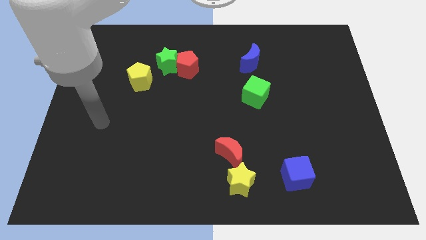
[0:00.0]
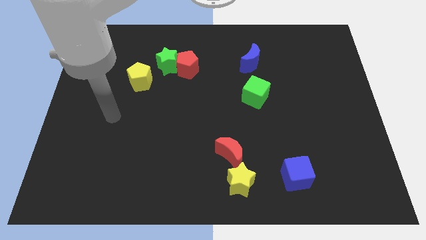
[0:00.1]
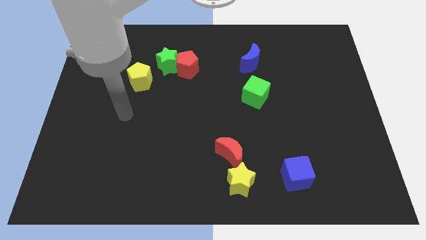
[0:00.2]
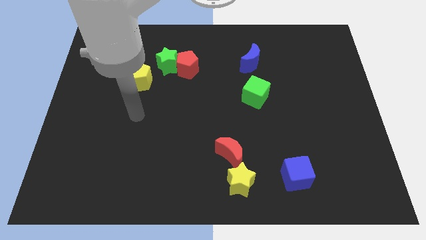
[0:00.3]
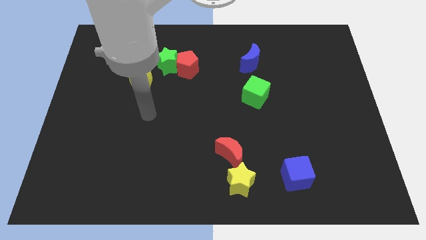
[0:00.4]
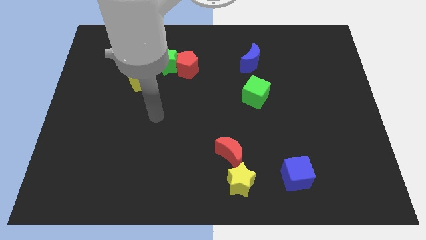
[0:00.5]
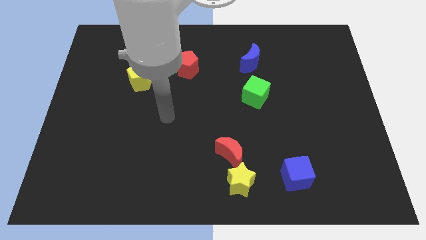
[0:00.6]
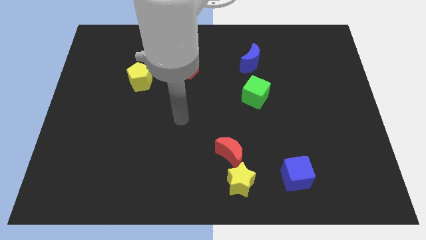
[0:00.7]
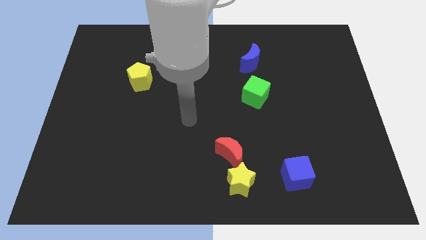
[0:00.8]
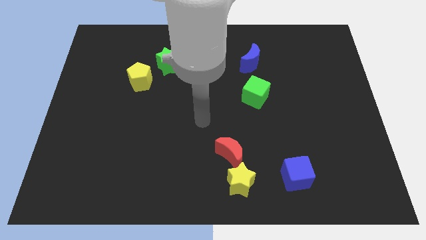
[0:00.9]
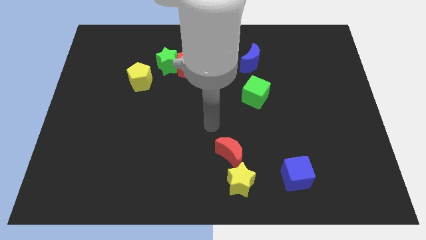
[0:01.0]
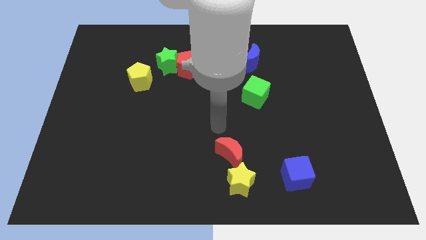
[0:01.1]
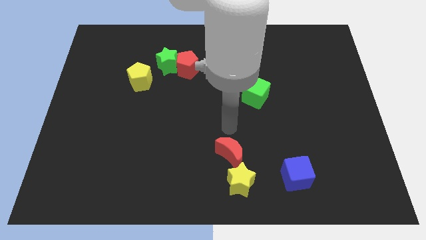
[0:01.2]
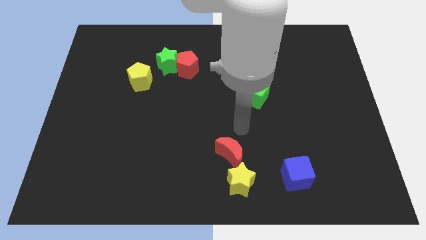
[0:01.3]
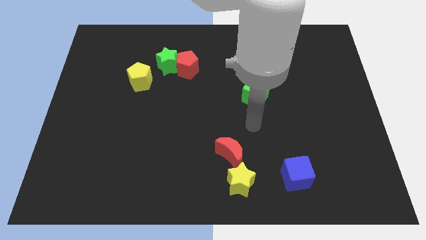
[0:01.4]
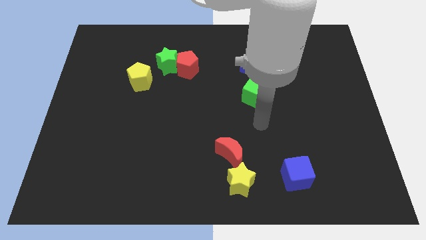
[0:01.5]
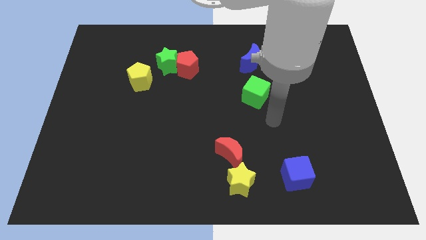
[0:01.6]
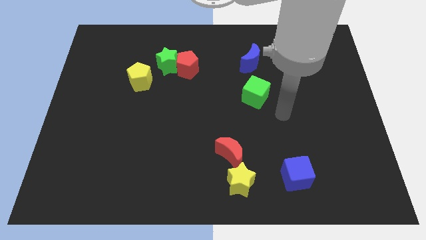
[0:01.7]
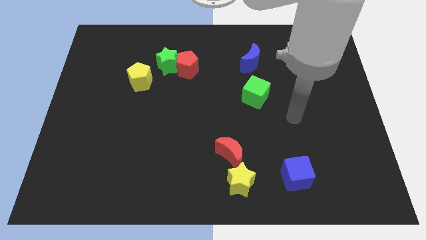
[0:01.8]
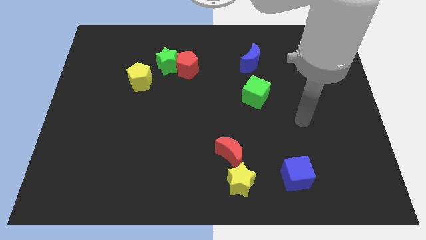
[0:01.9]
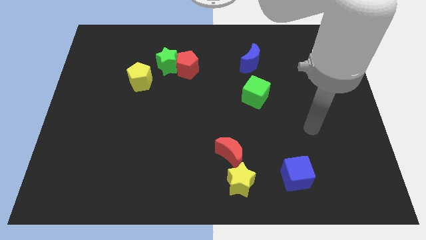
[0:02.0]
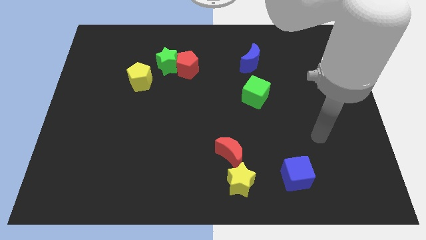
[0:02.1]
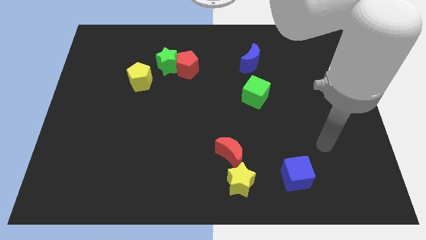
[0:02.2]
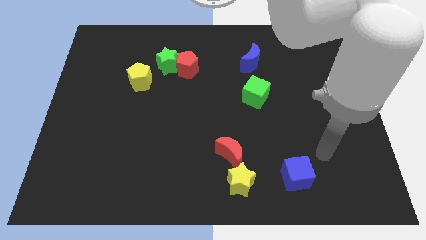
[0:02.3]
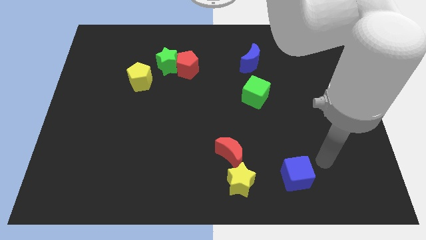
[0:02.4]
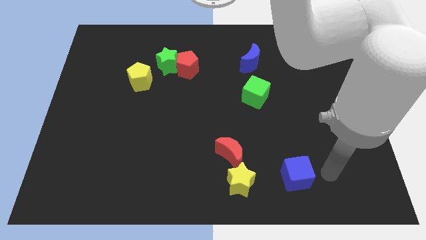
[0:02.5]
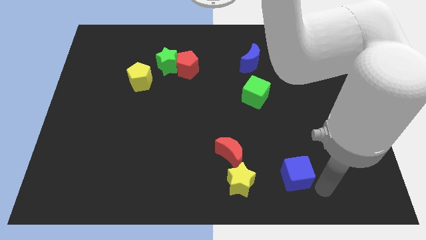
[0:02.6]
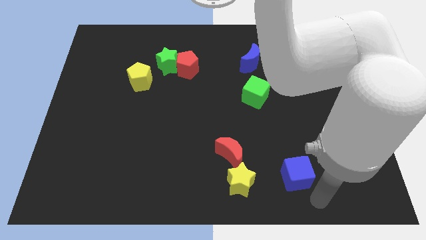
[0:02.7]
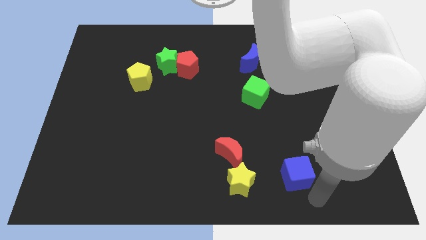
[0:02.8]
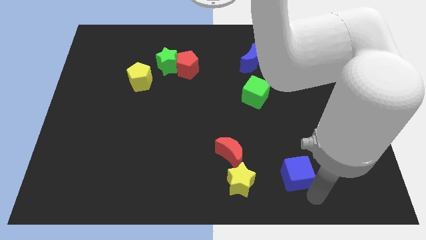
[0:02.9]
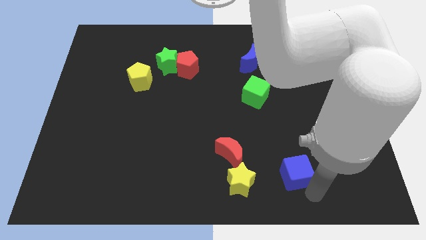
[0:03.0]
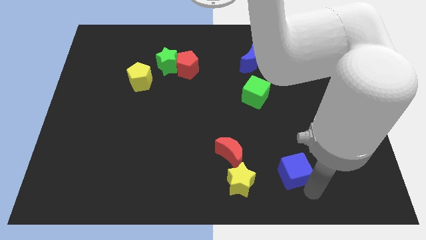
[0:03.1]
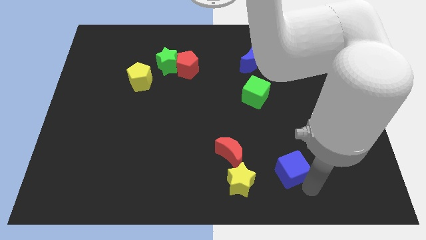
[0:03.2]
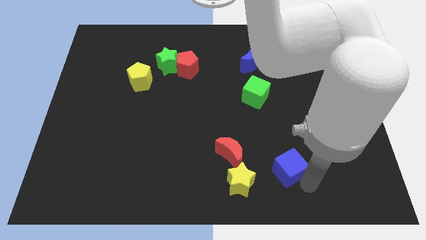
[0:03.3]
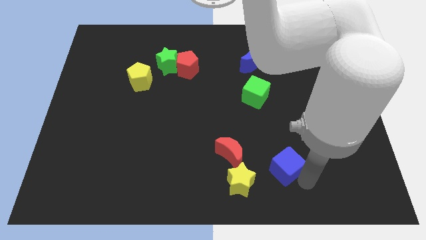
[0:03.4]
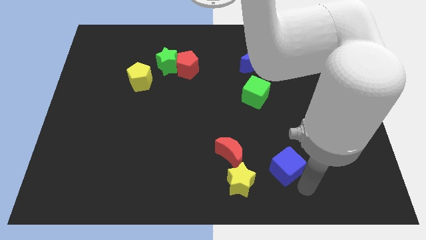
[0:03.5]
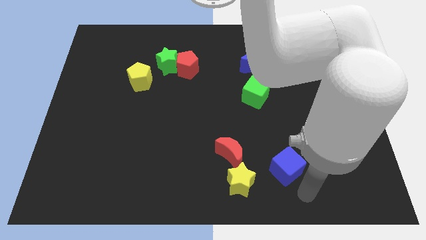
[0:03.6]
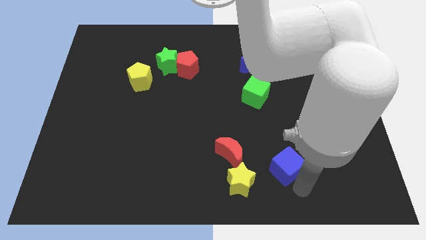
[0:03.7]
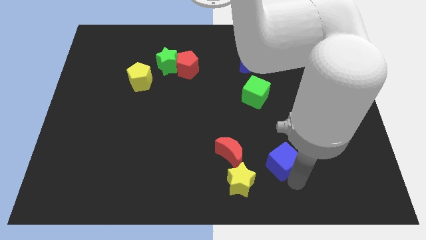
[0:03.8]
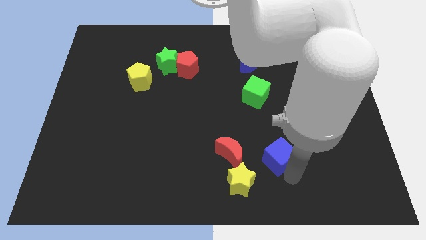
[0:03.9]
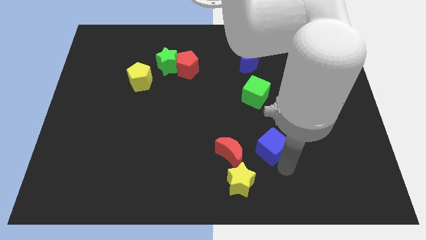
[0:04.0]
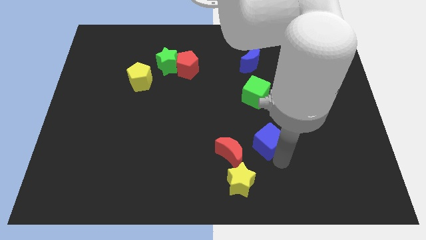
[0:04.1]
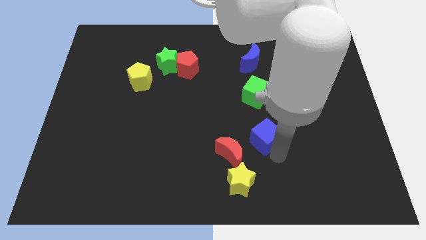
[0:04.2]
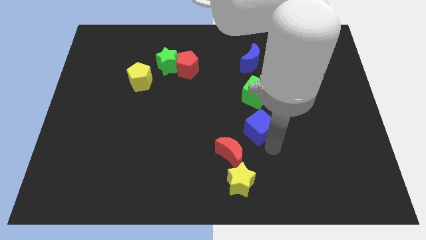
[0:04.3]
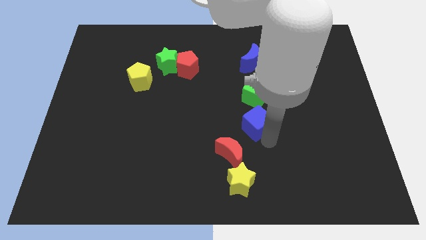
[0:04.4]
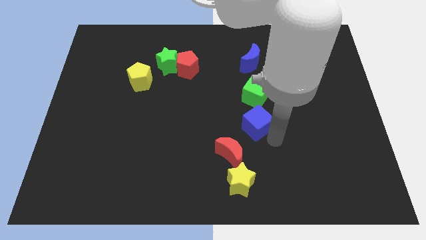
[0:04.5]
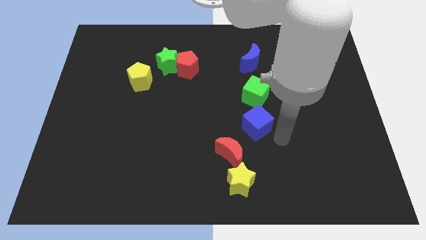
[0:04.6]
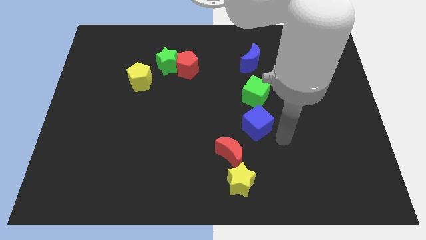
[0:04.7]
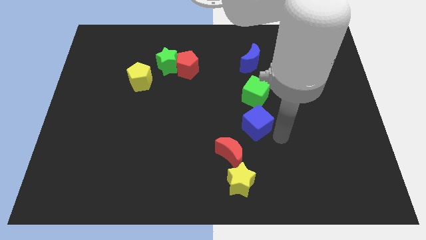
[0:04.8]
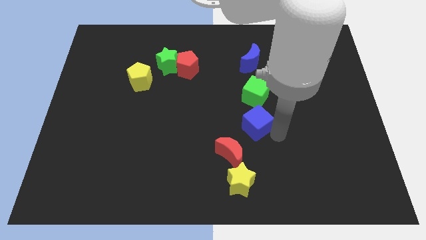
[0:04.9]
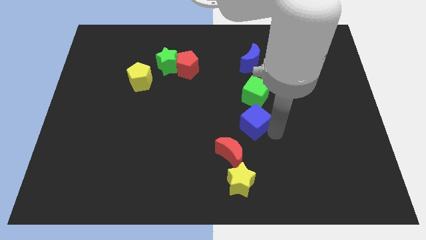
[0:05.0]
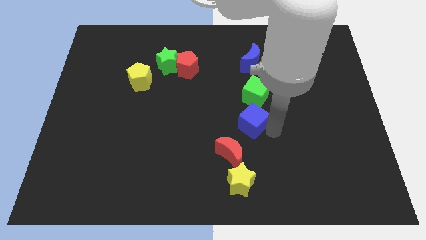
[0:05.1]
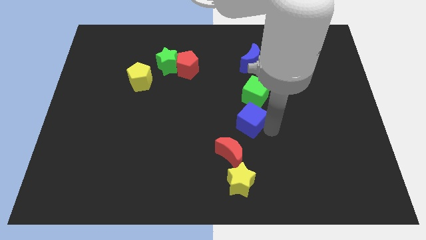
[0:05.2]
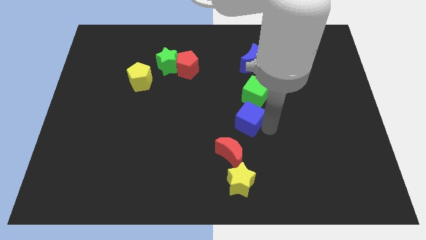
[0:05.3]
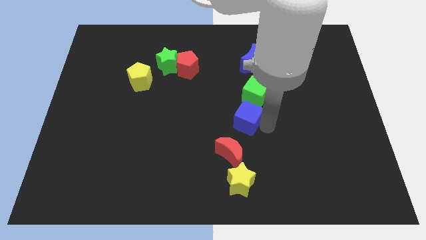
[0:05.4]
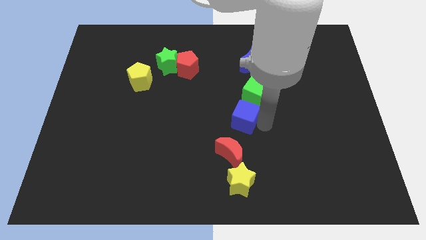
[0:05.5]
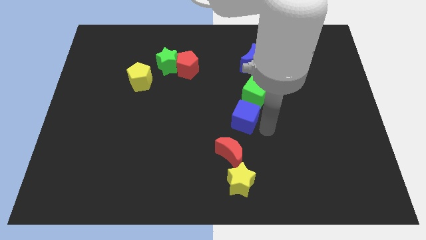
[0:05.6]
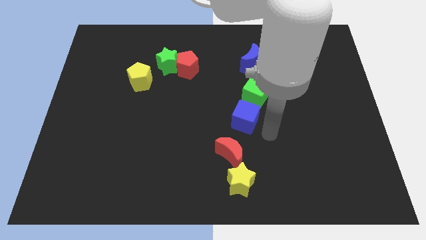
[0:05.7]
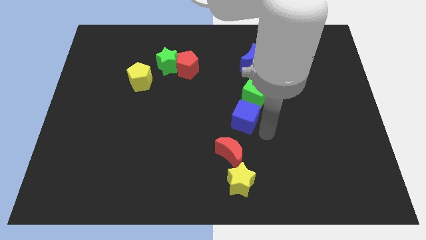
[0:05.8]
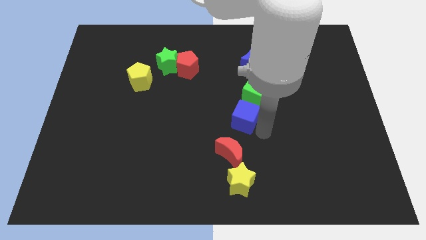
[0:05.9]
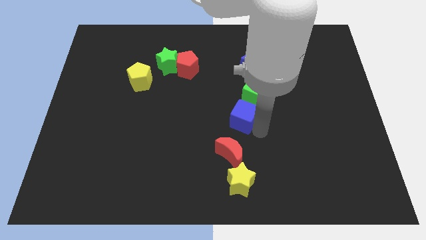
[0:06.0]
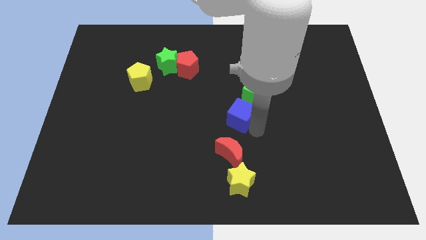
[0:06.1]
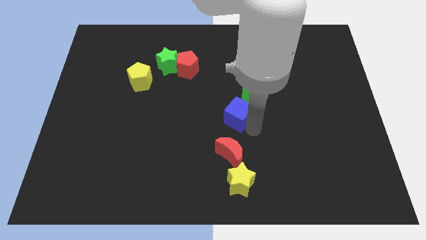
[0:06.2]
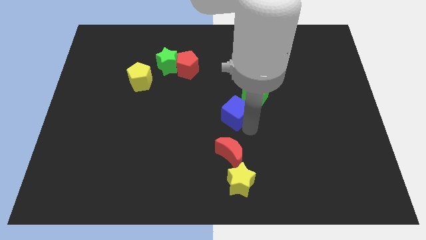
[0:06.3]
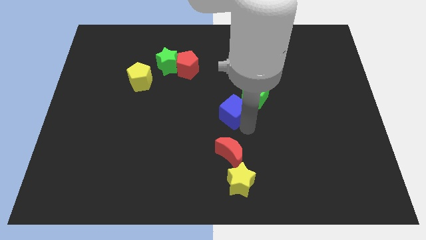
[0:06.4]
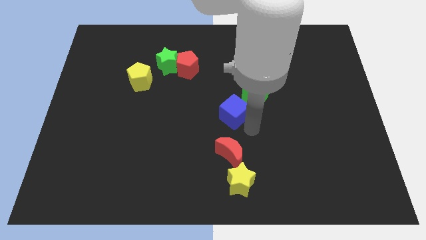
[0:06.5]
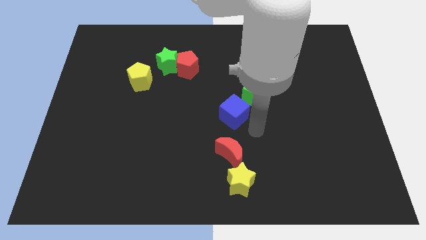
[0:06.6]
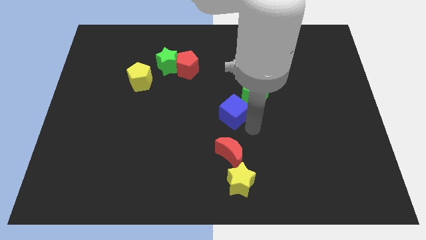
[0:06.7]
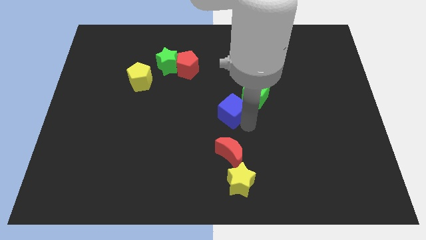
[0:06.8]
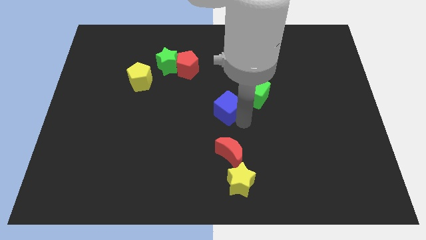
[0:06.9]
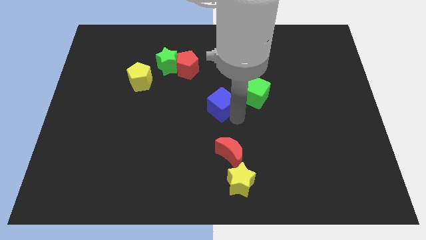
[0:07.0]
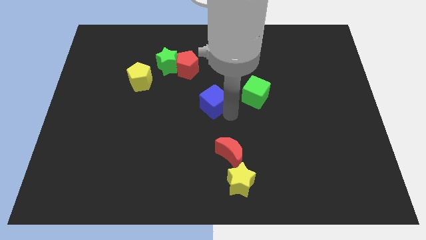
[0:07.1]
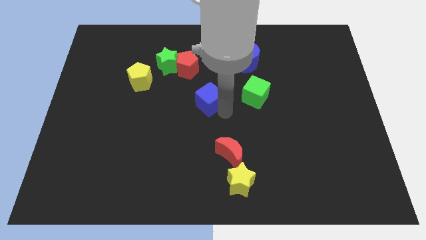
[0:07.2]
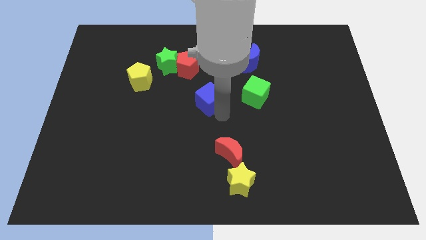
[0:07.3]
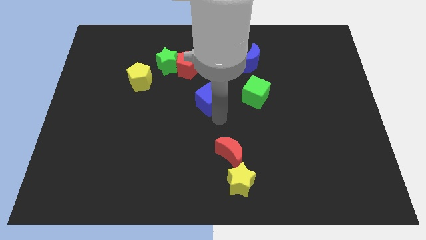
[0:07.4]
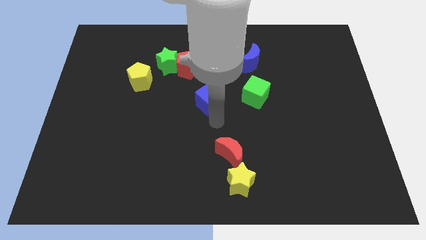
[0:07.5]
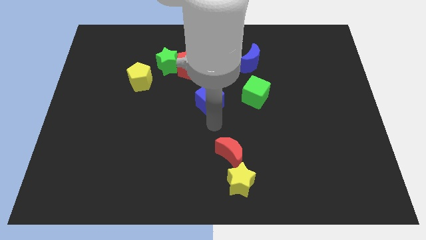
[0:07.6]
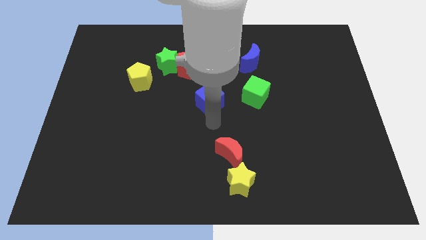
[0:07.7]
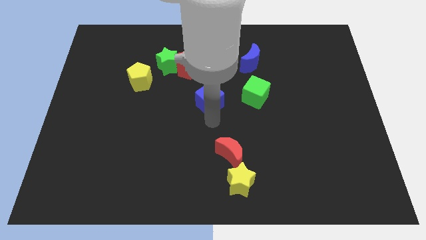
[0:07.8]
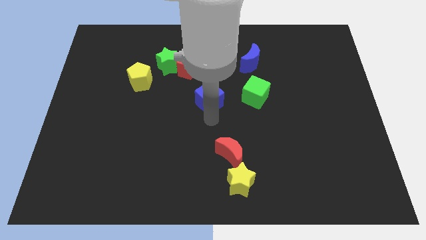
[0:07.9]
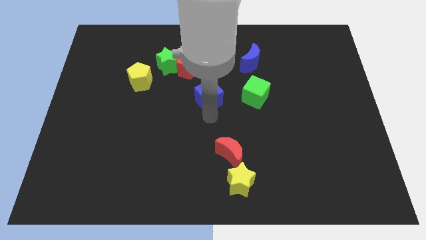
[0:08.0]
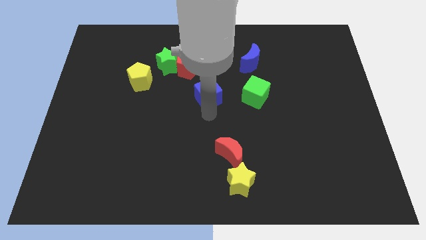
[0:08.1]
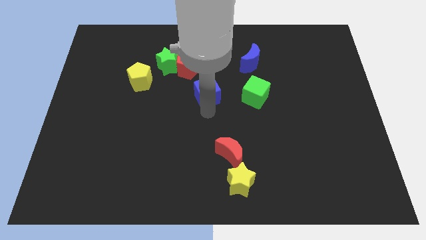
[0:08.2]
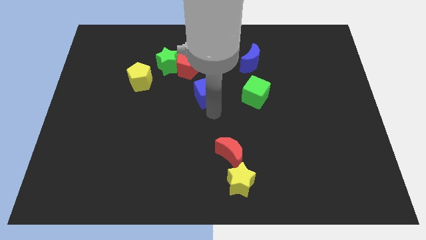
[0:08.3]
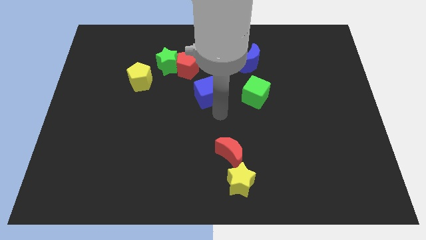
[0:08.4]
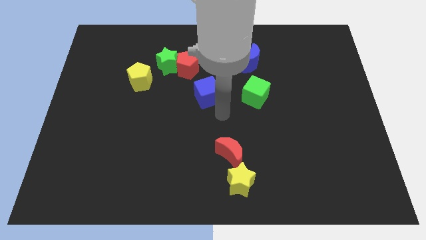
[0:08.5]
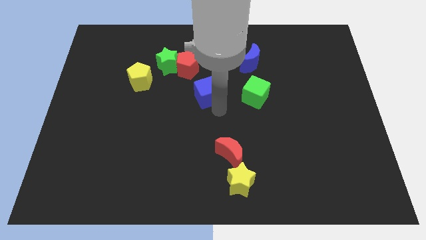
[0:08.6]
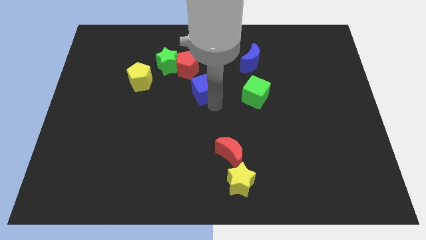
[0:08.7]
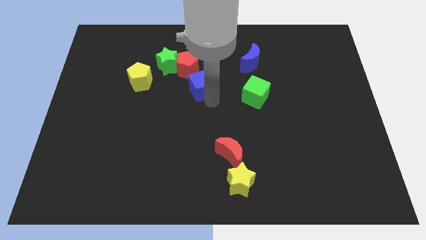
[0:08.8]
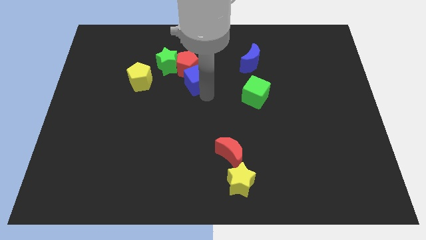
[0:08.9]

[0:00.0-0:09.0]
put the blue cube to the red pentagon
